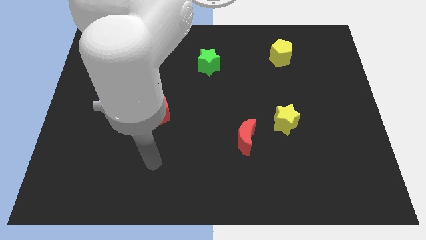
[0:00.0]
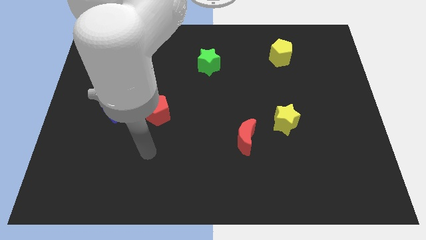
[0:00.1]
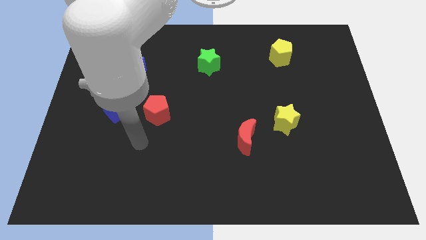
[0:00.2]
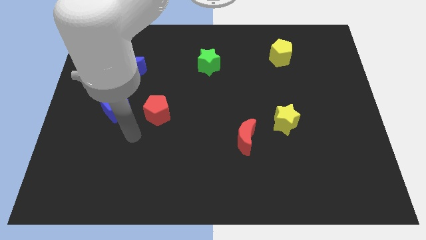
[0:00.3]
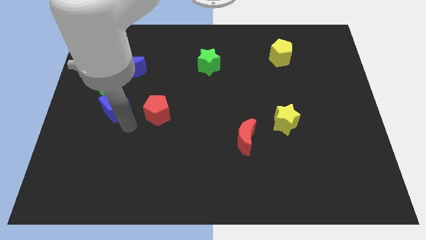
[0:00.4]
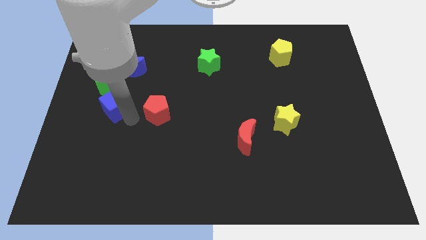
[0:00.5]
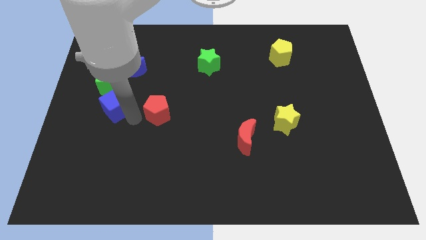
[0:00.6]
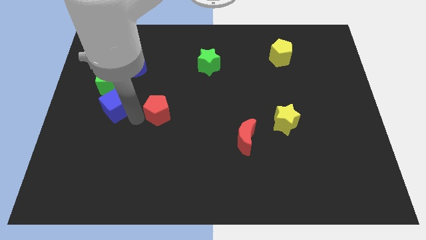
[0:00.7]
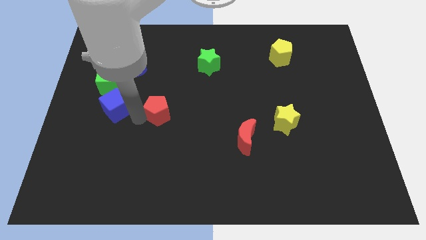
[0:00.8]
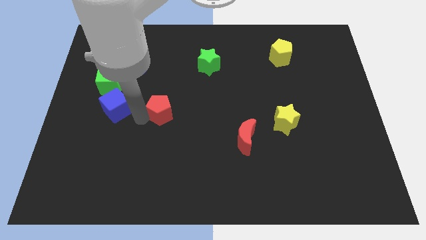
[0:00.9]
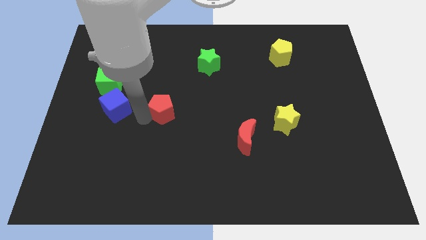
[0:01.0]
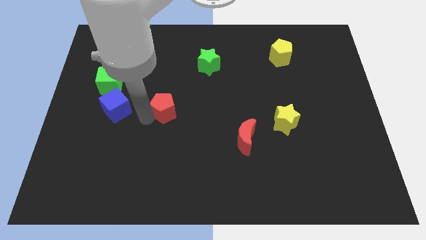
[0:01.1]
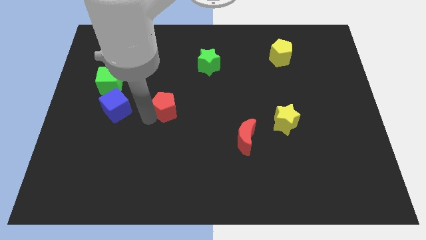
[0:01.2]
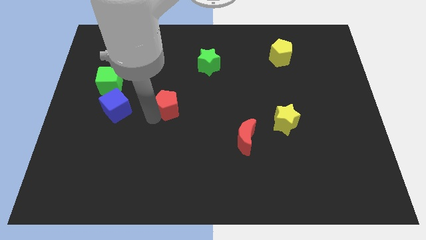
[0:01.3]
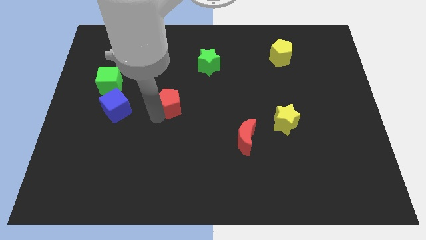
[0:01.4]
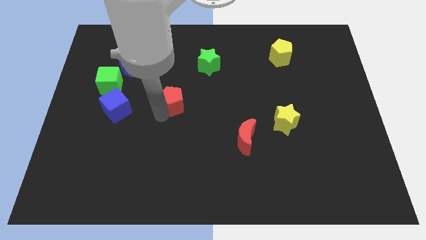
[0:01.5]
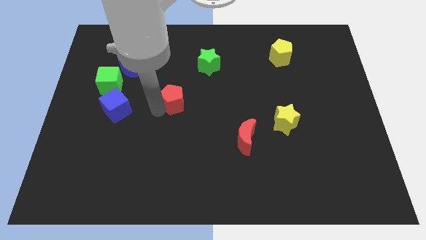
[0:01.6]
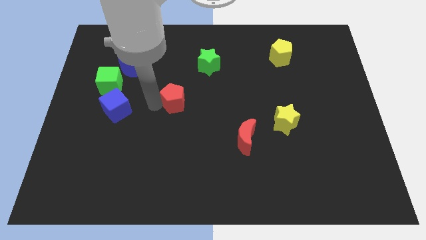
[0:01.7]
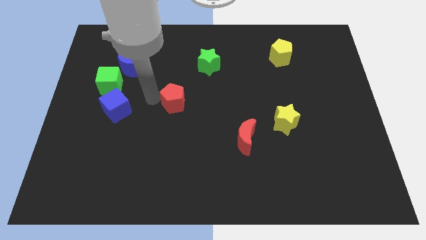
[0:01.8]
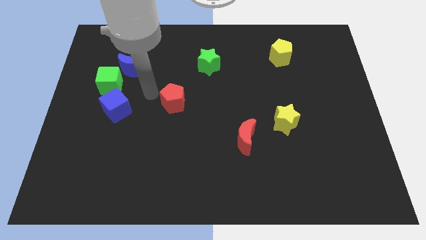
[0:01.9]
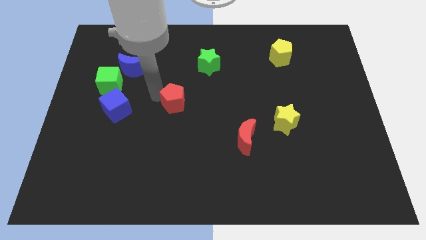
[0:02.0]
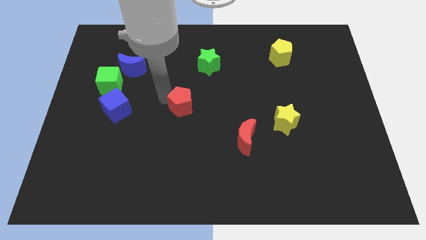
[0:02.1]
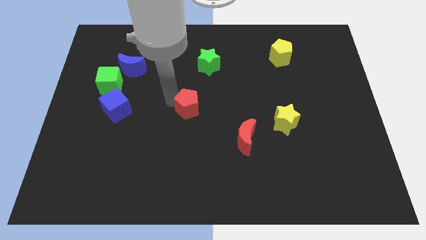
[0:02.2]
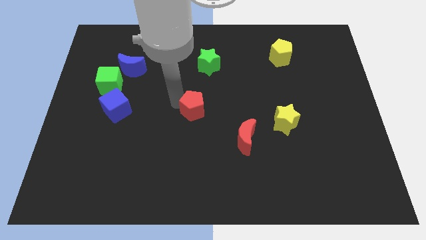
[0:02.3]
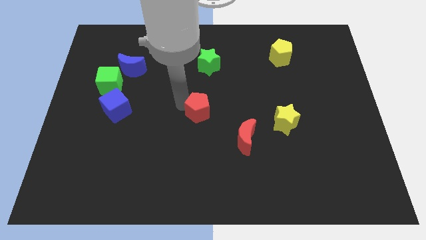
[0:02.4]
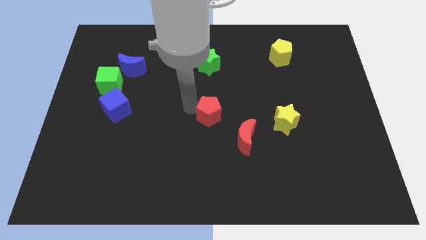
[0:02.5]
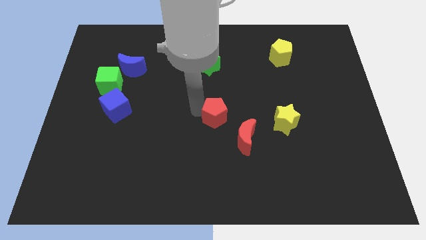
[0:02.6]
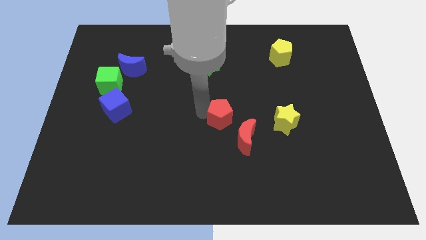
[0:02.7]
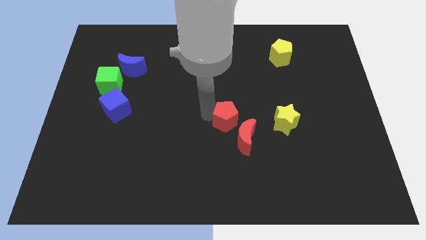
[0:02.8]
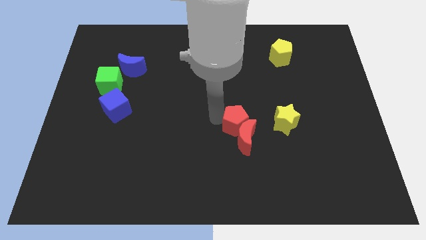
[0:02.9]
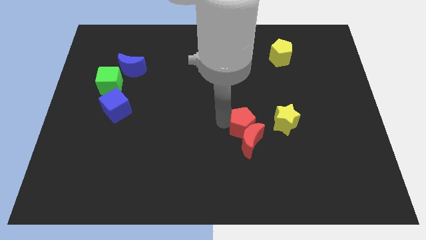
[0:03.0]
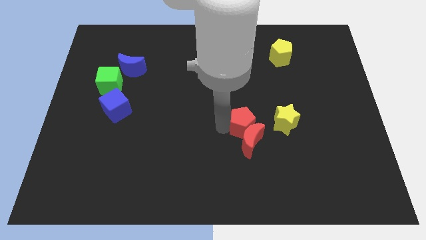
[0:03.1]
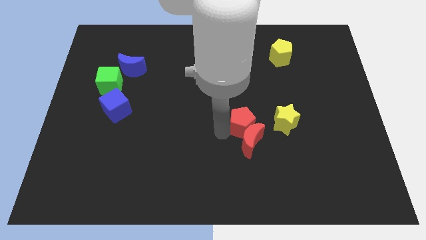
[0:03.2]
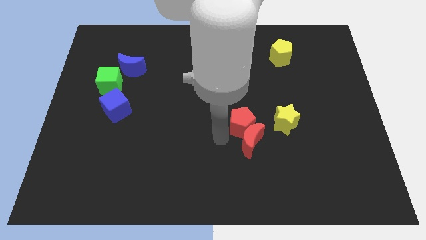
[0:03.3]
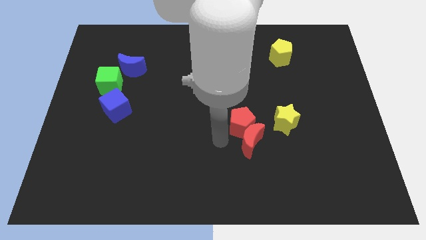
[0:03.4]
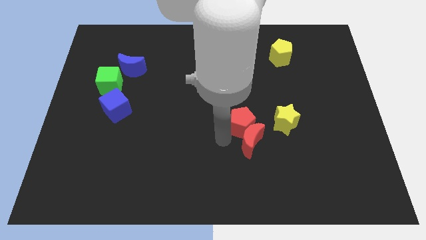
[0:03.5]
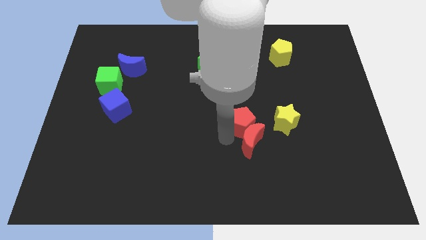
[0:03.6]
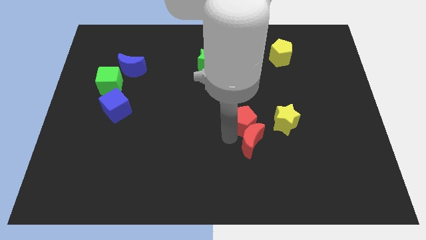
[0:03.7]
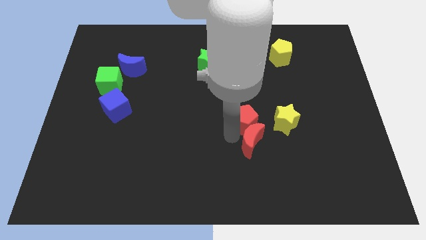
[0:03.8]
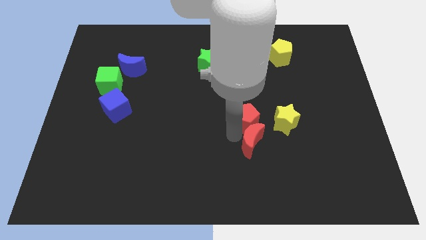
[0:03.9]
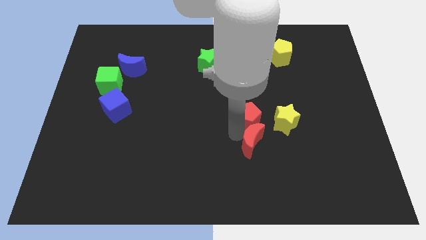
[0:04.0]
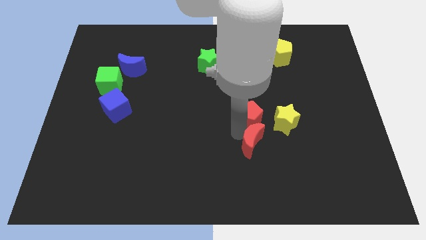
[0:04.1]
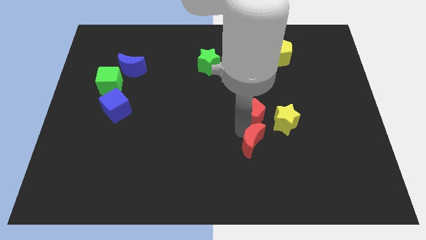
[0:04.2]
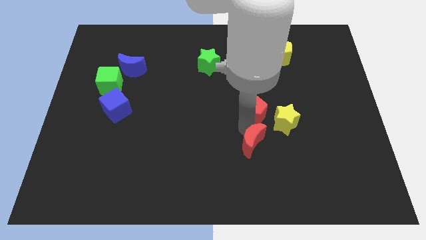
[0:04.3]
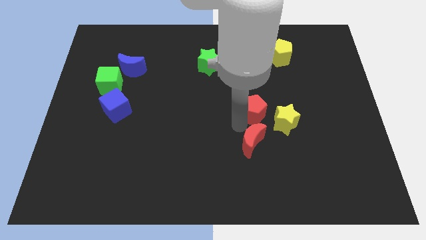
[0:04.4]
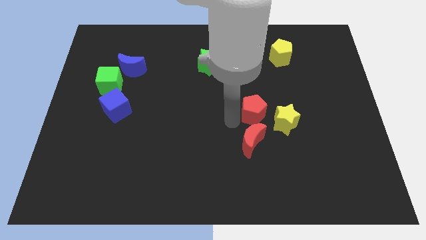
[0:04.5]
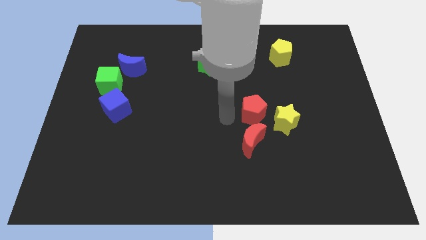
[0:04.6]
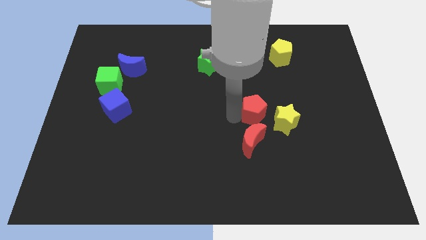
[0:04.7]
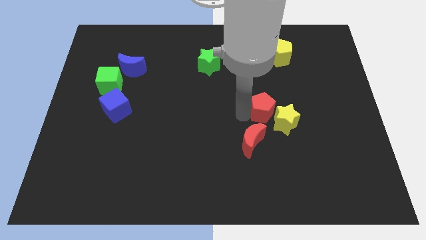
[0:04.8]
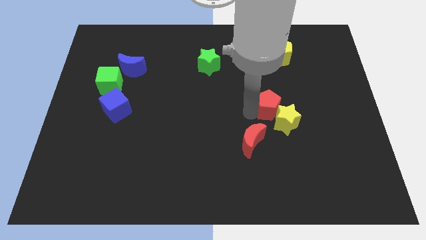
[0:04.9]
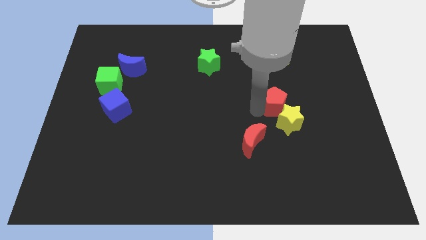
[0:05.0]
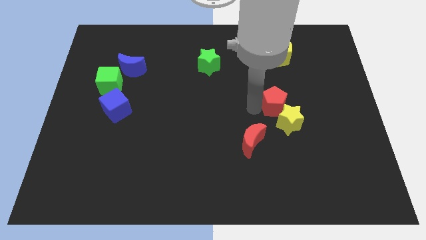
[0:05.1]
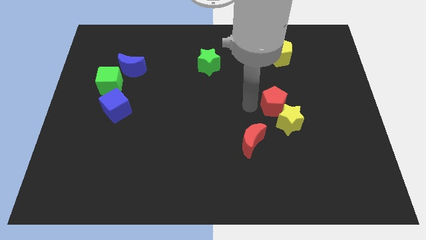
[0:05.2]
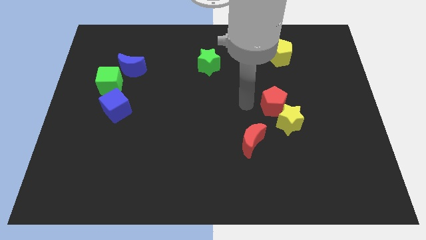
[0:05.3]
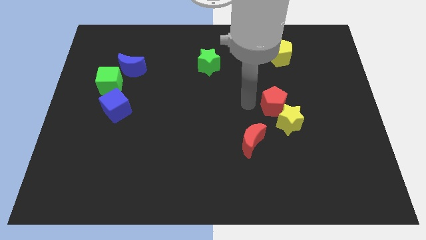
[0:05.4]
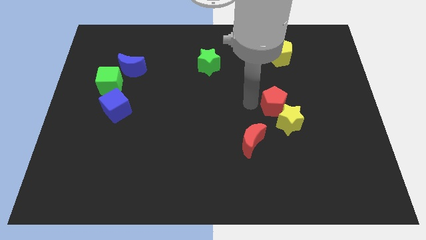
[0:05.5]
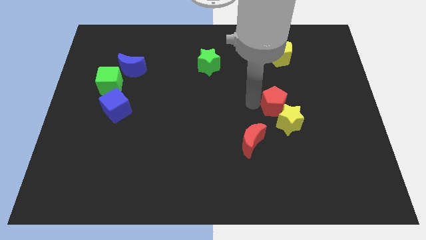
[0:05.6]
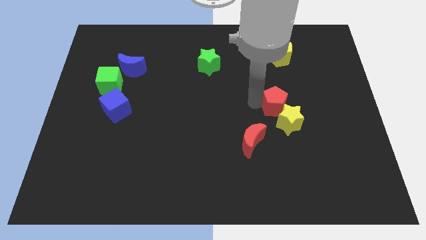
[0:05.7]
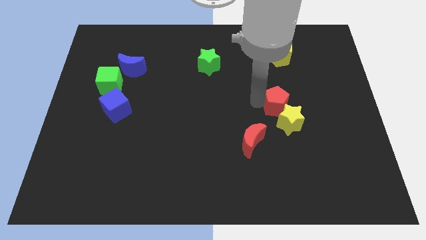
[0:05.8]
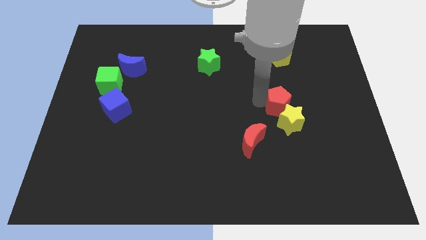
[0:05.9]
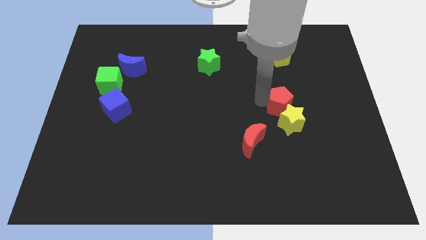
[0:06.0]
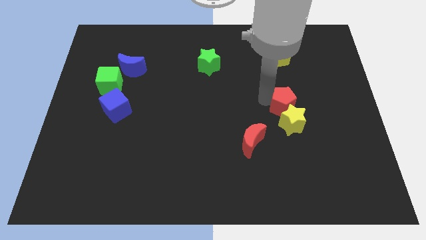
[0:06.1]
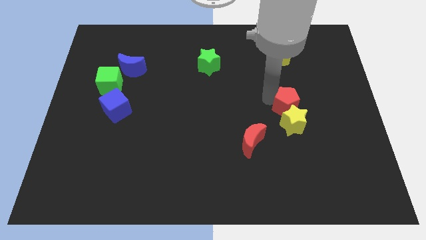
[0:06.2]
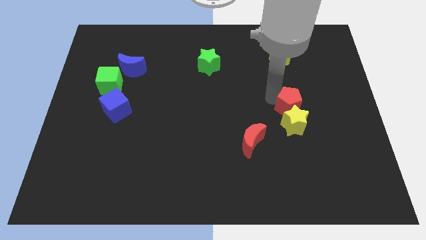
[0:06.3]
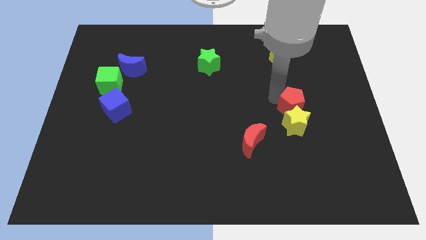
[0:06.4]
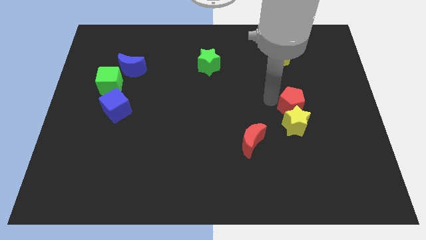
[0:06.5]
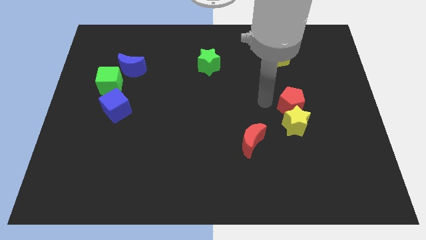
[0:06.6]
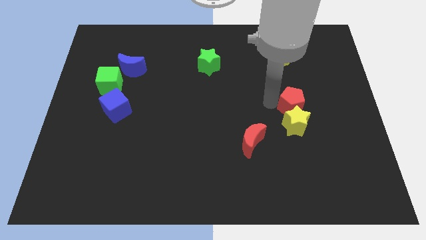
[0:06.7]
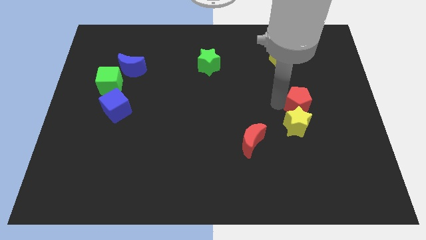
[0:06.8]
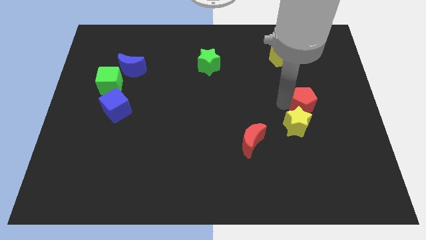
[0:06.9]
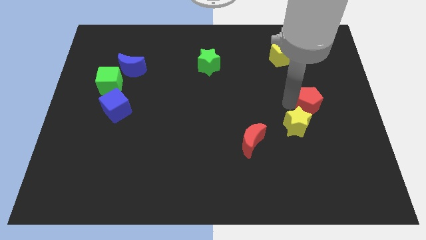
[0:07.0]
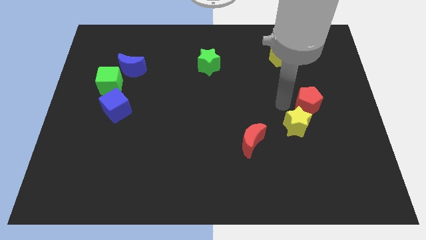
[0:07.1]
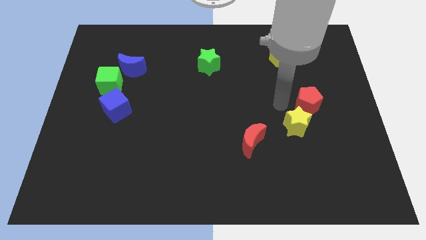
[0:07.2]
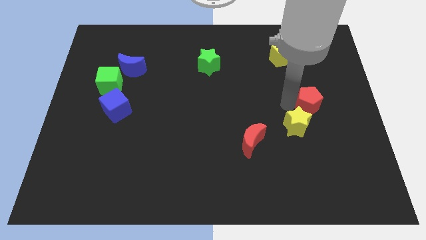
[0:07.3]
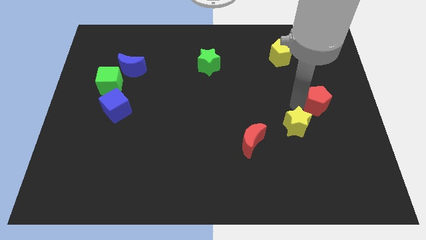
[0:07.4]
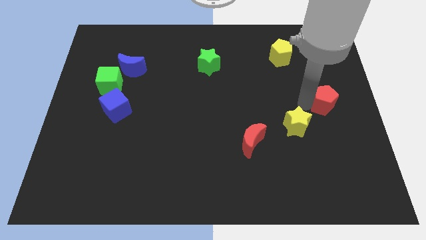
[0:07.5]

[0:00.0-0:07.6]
move the red pentagon to the right side of the board

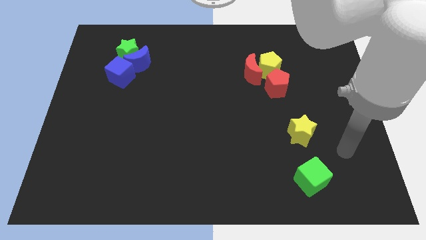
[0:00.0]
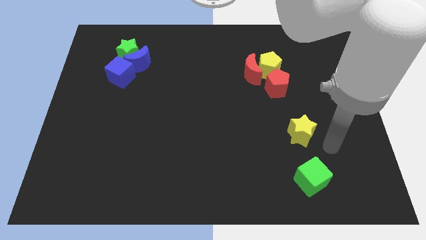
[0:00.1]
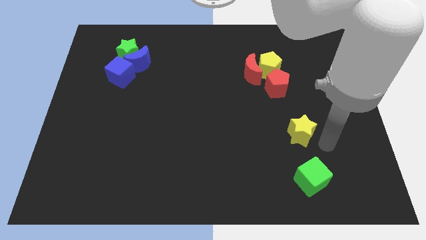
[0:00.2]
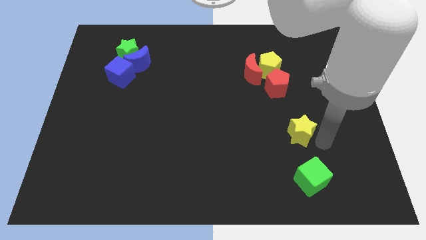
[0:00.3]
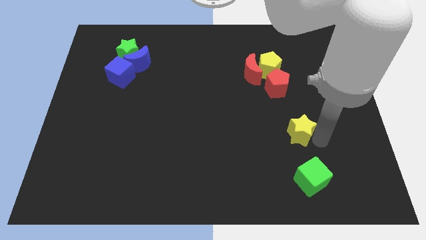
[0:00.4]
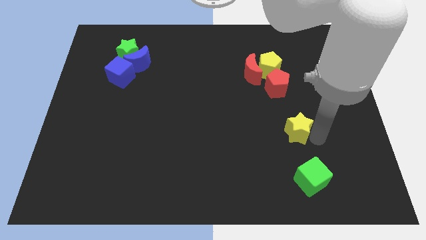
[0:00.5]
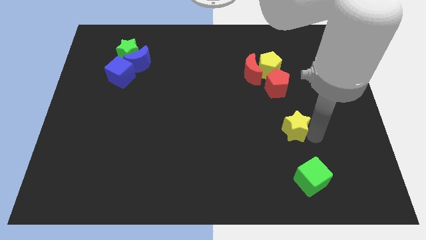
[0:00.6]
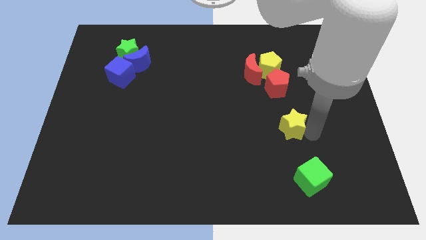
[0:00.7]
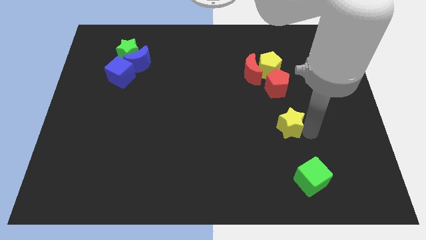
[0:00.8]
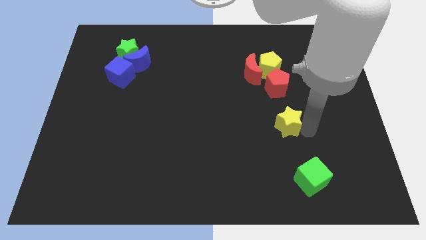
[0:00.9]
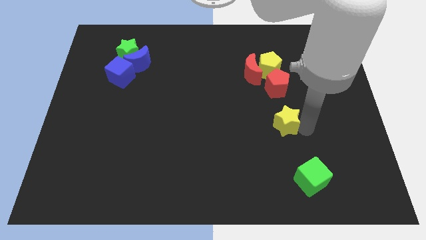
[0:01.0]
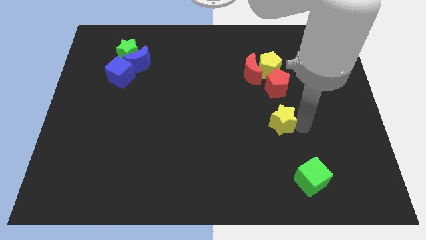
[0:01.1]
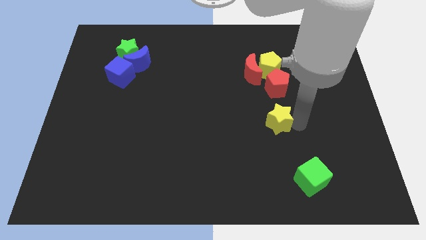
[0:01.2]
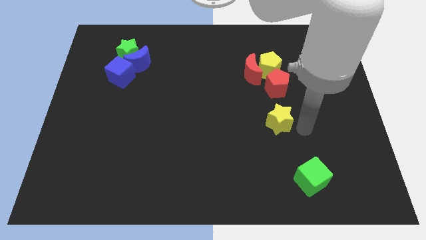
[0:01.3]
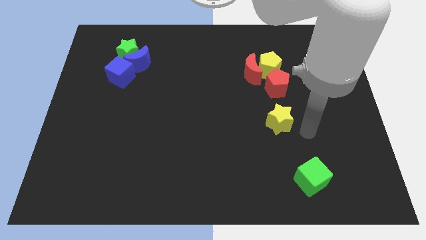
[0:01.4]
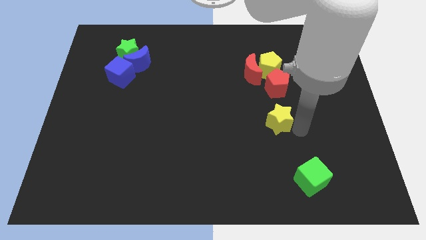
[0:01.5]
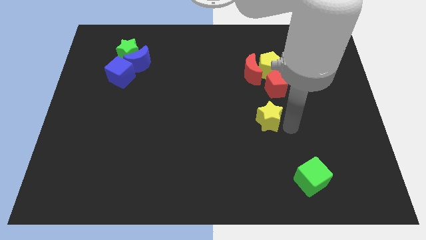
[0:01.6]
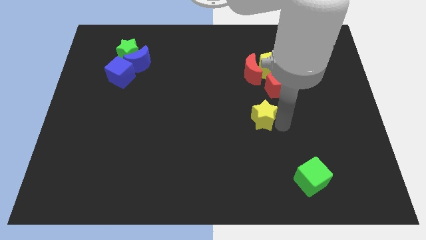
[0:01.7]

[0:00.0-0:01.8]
slide the yellow star to the center
